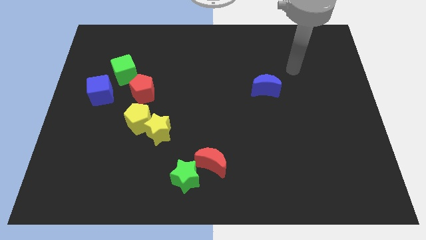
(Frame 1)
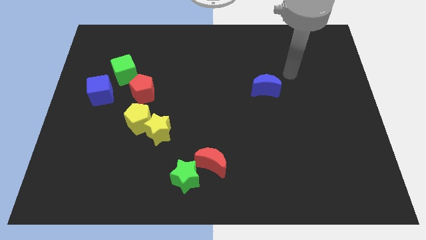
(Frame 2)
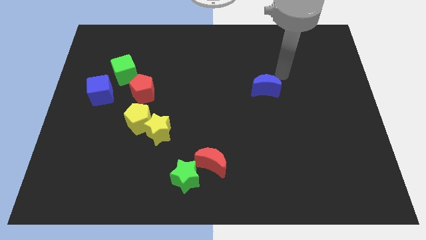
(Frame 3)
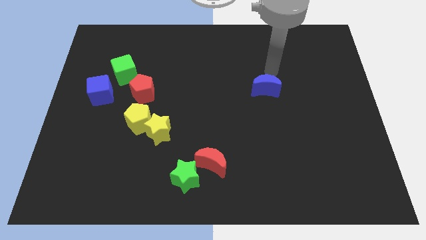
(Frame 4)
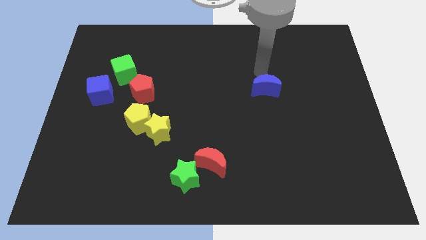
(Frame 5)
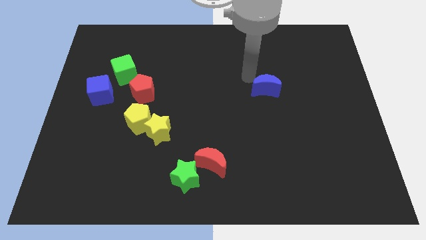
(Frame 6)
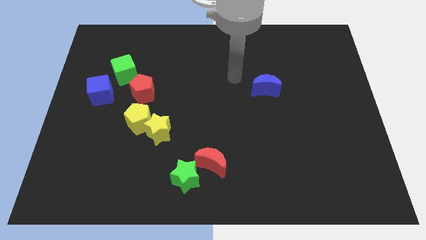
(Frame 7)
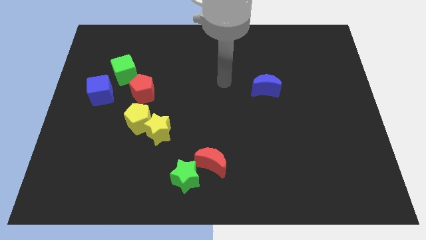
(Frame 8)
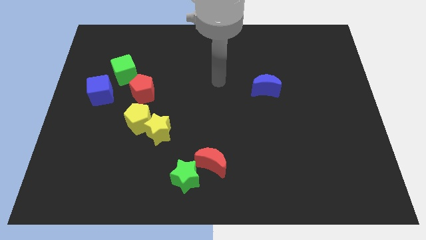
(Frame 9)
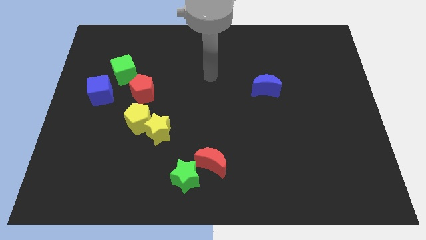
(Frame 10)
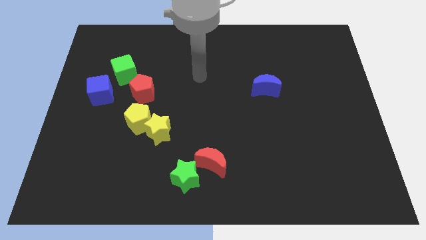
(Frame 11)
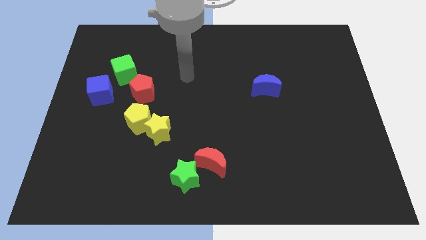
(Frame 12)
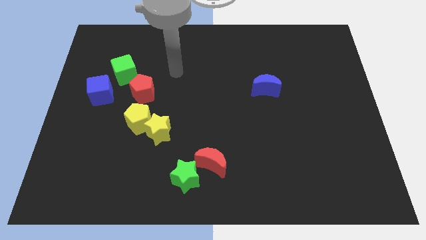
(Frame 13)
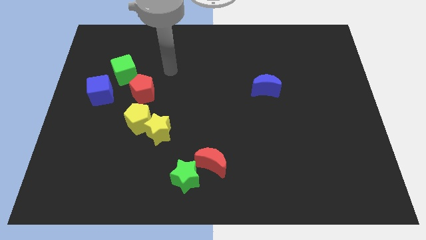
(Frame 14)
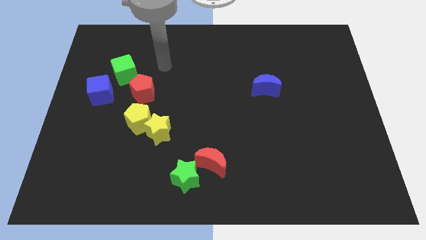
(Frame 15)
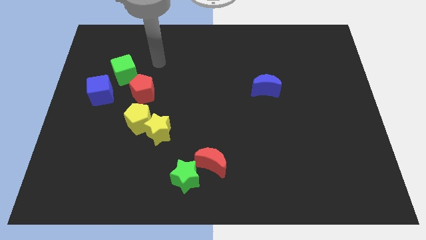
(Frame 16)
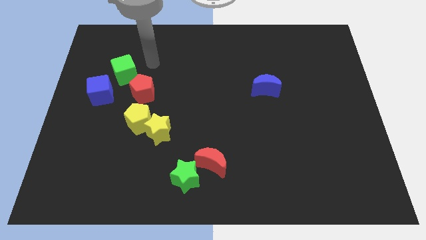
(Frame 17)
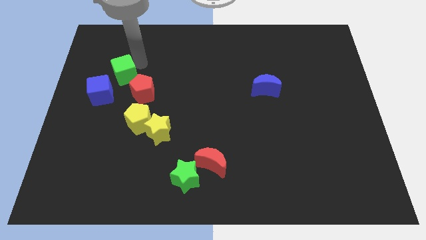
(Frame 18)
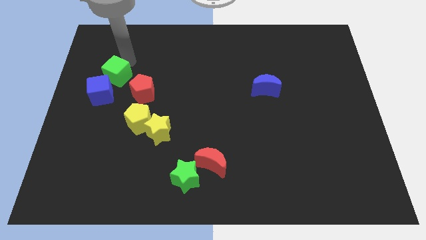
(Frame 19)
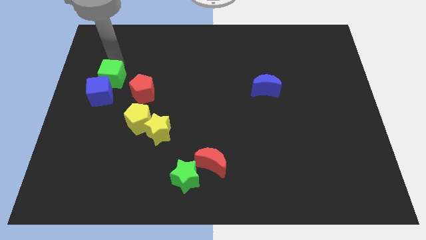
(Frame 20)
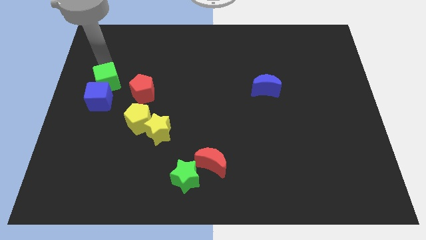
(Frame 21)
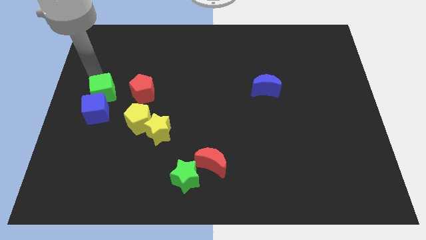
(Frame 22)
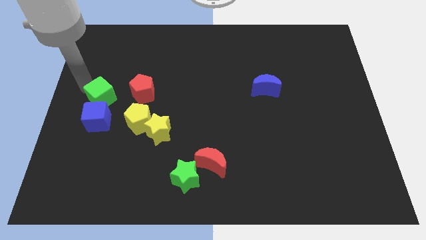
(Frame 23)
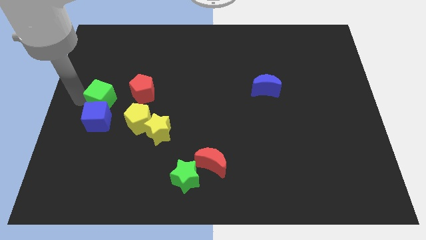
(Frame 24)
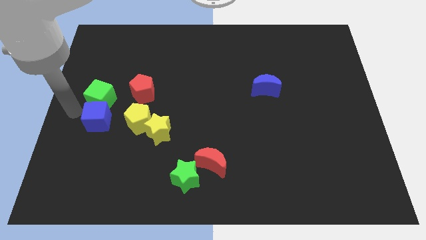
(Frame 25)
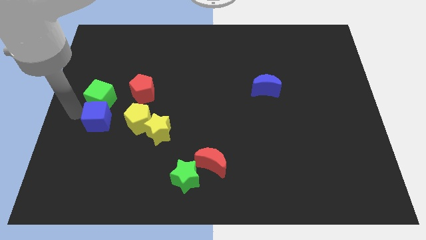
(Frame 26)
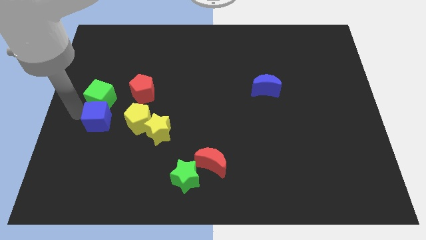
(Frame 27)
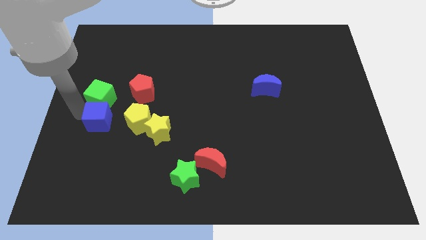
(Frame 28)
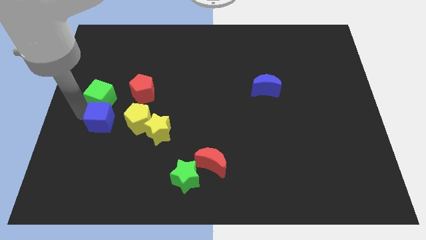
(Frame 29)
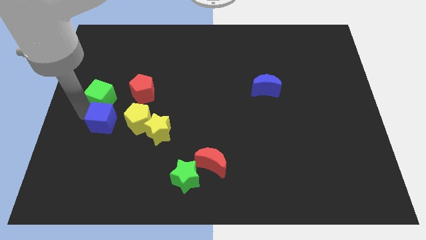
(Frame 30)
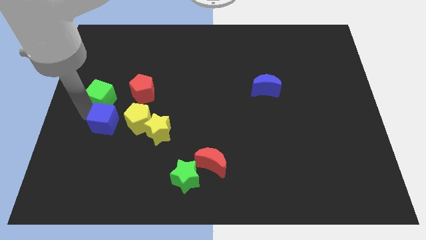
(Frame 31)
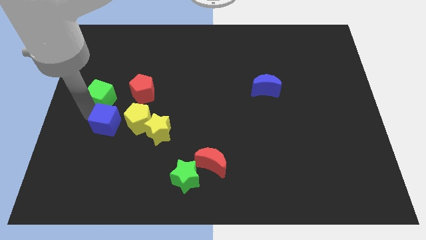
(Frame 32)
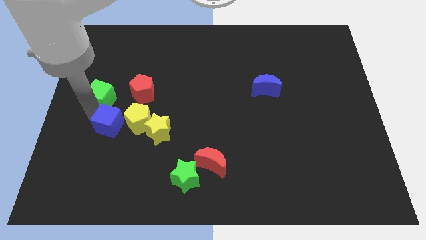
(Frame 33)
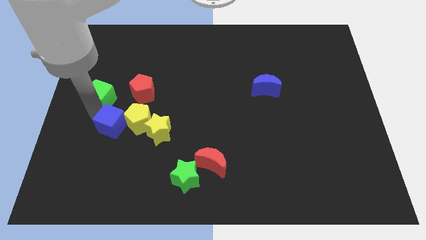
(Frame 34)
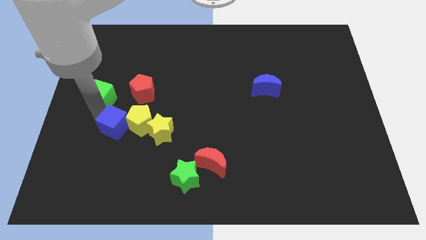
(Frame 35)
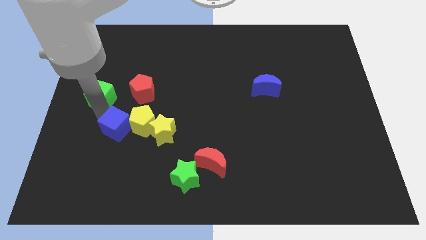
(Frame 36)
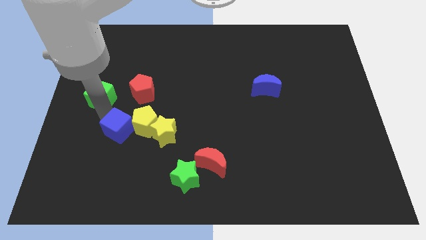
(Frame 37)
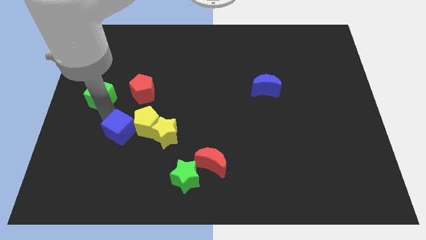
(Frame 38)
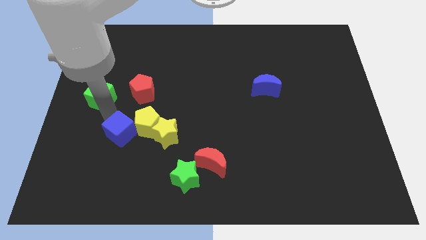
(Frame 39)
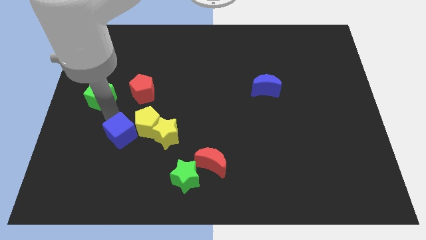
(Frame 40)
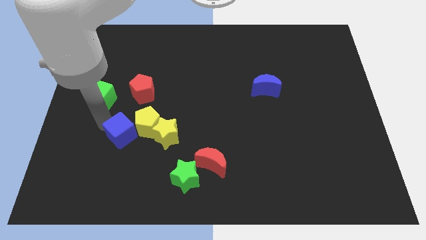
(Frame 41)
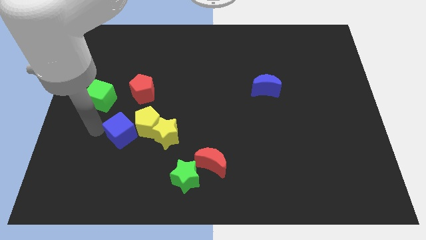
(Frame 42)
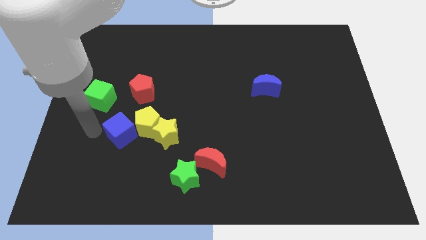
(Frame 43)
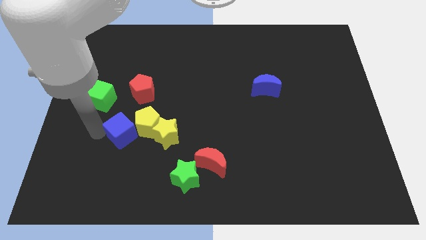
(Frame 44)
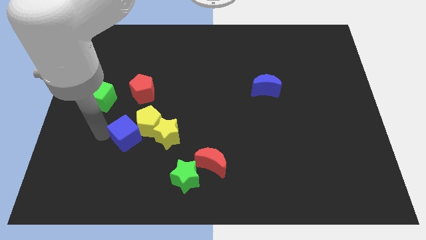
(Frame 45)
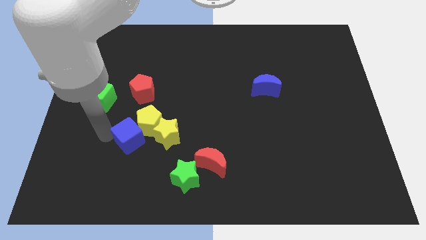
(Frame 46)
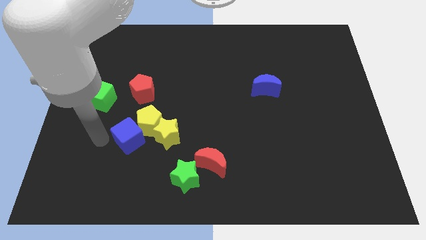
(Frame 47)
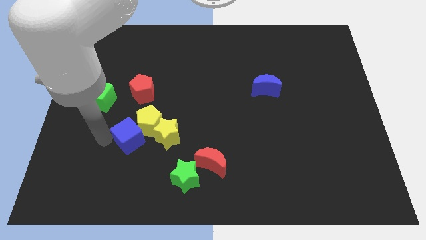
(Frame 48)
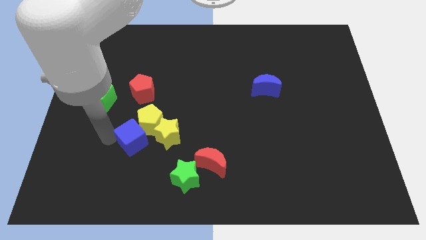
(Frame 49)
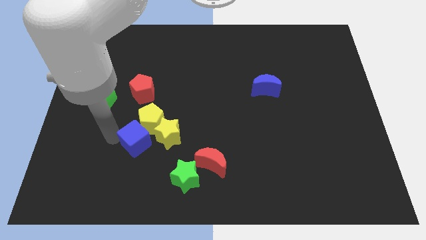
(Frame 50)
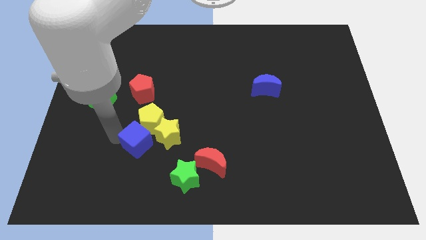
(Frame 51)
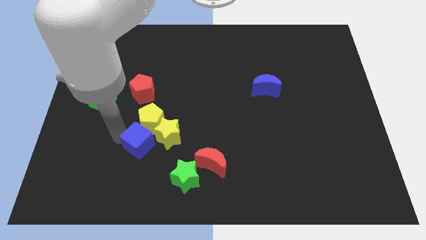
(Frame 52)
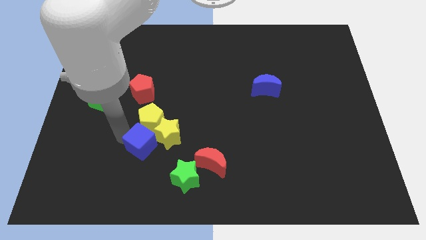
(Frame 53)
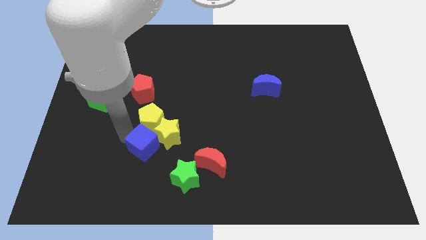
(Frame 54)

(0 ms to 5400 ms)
move the blue cube close to the yellow star

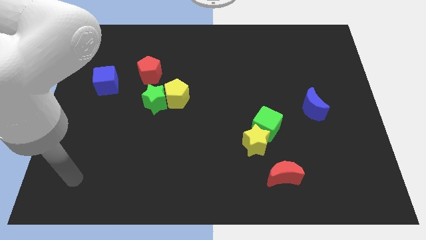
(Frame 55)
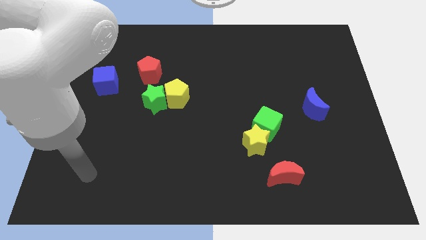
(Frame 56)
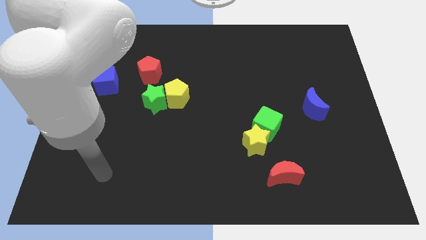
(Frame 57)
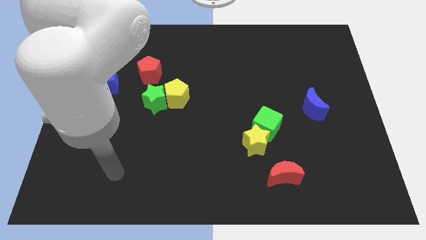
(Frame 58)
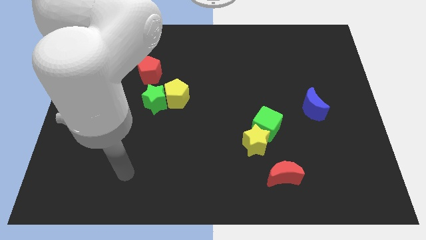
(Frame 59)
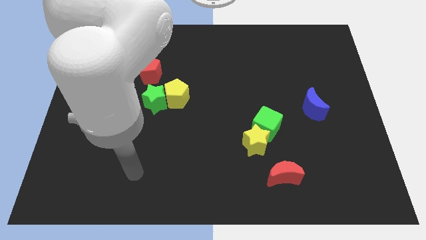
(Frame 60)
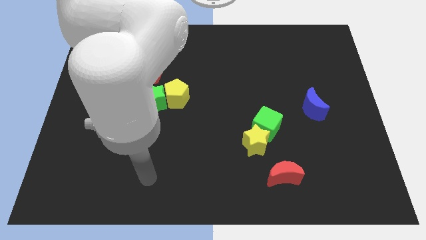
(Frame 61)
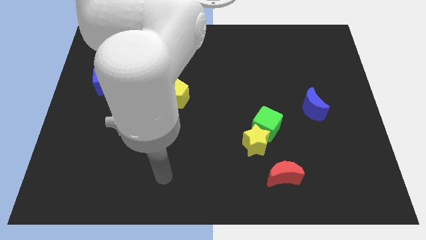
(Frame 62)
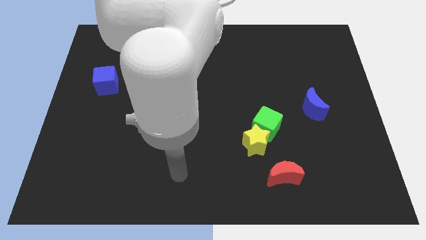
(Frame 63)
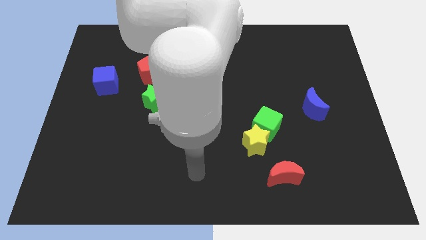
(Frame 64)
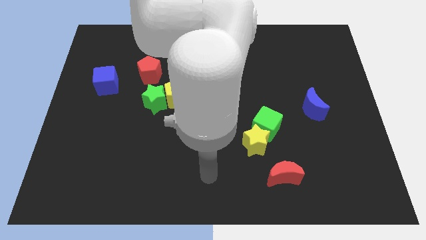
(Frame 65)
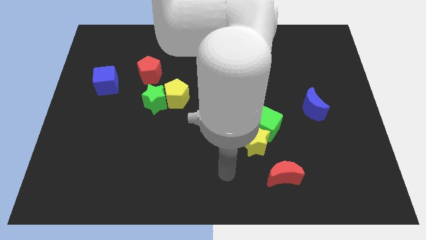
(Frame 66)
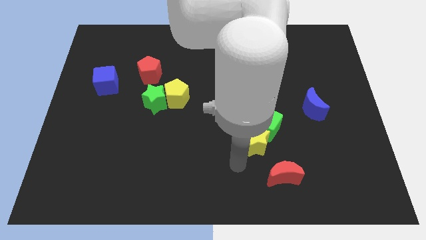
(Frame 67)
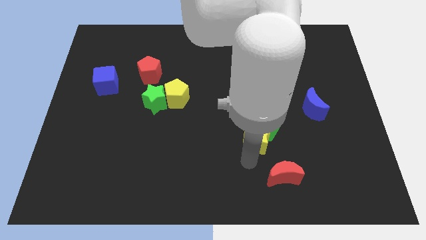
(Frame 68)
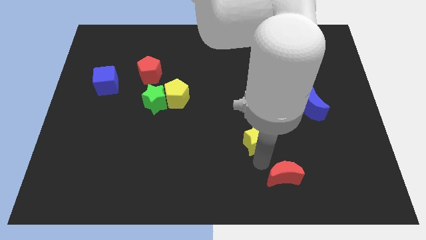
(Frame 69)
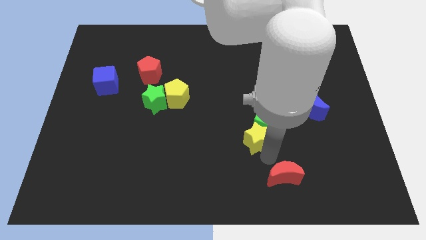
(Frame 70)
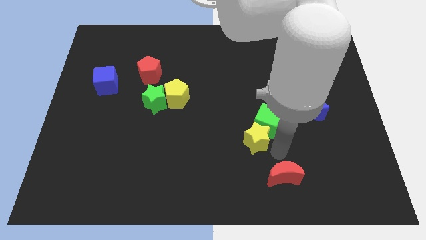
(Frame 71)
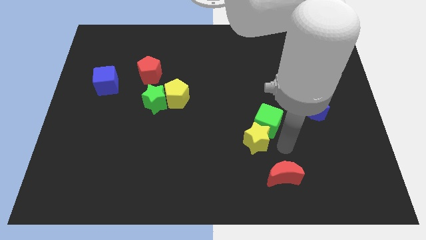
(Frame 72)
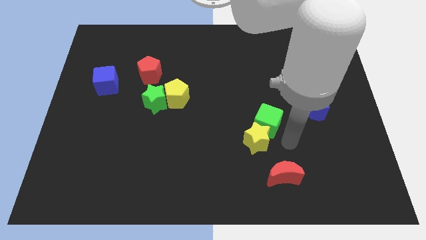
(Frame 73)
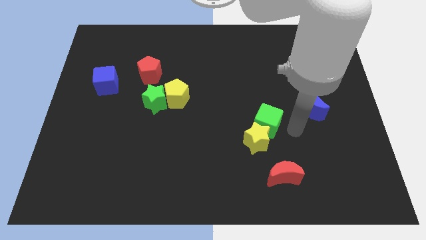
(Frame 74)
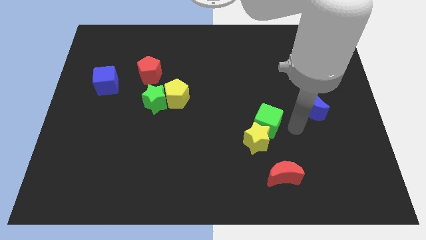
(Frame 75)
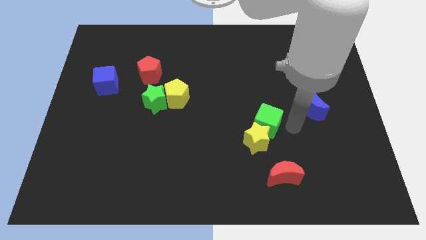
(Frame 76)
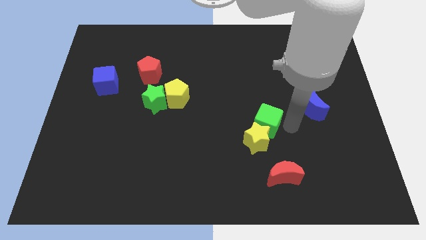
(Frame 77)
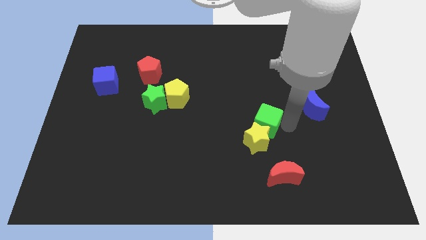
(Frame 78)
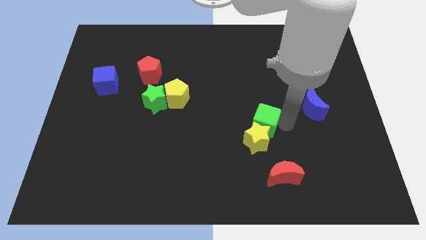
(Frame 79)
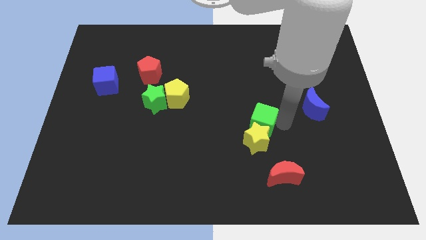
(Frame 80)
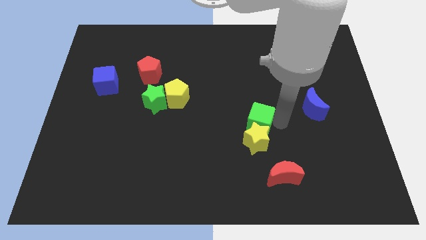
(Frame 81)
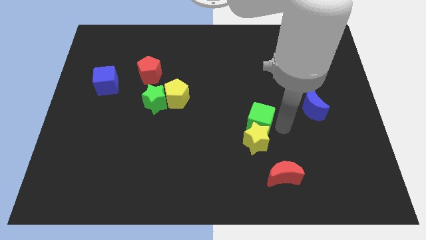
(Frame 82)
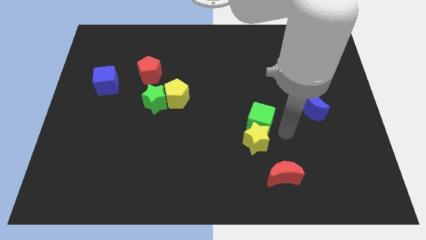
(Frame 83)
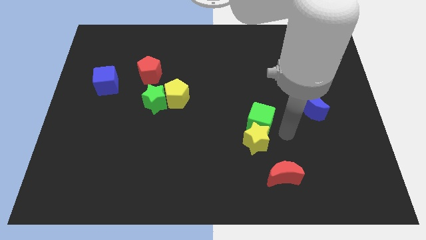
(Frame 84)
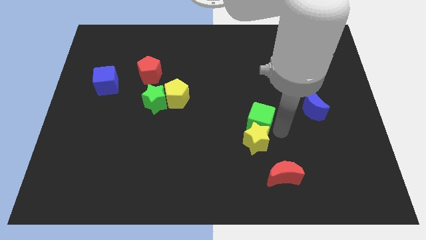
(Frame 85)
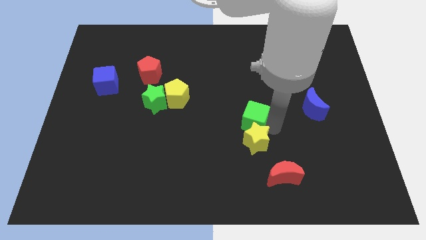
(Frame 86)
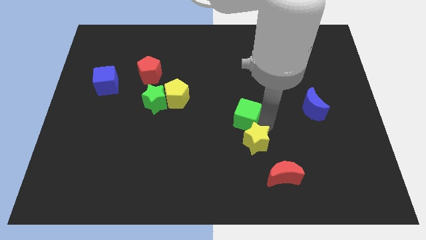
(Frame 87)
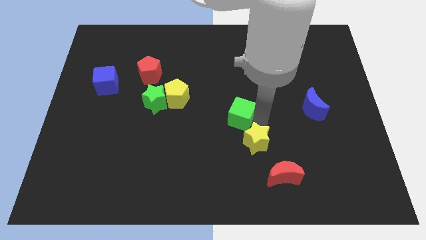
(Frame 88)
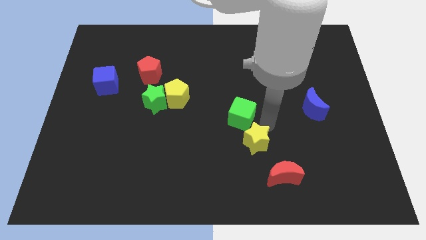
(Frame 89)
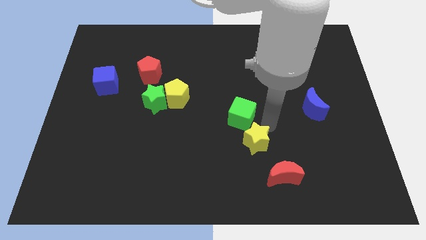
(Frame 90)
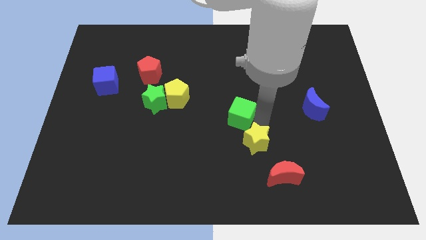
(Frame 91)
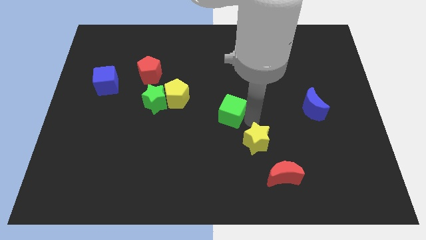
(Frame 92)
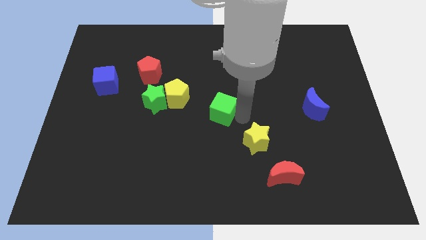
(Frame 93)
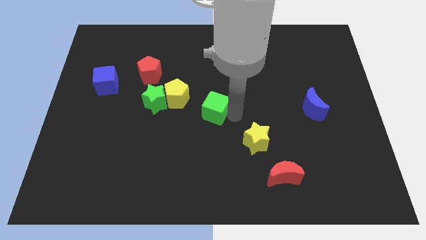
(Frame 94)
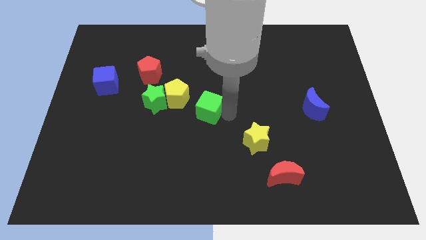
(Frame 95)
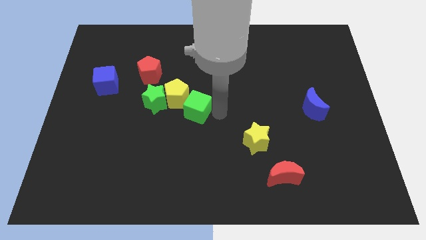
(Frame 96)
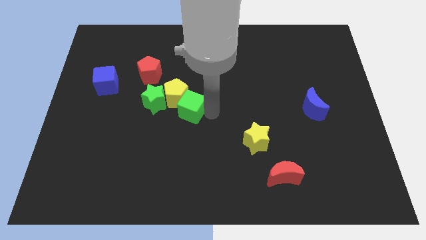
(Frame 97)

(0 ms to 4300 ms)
put the green cube close to the yellow pentagon
